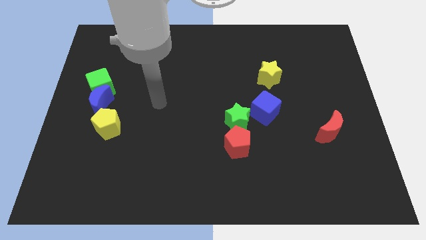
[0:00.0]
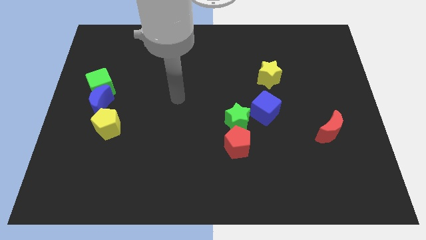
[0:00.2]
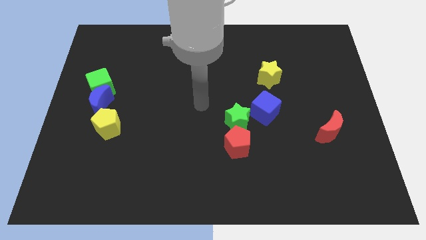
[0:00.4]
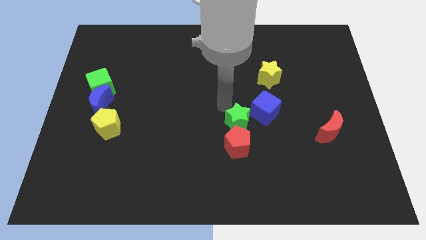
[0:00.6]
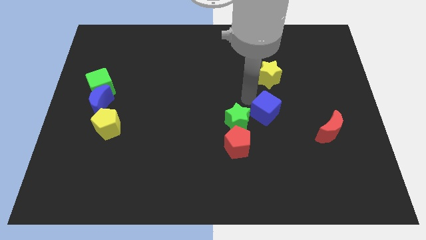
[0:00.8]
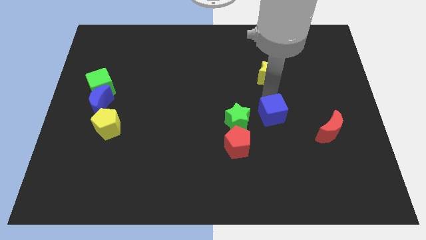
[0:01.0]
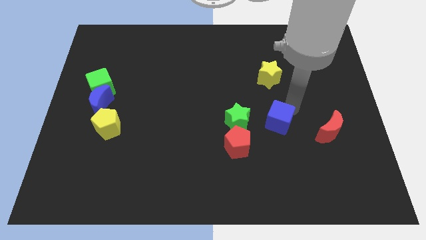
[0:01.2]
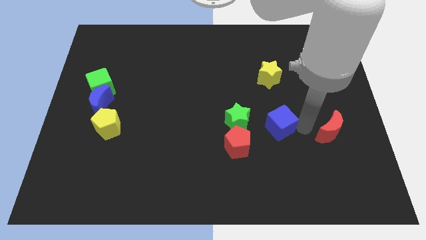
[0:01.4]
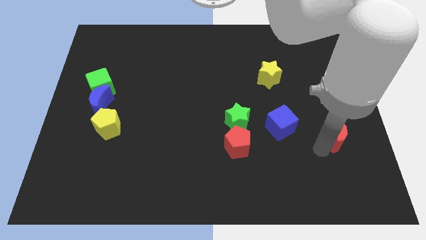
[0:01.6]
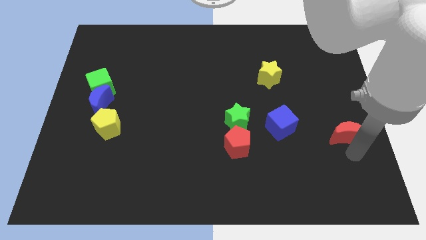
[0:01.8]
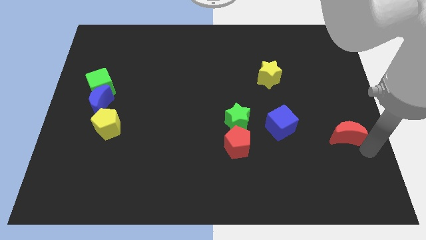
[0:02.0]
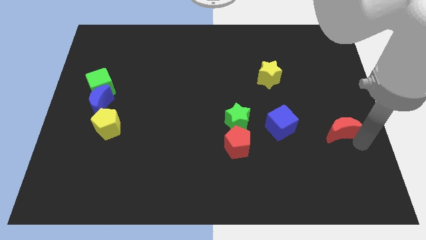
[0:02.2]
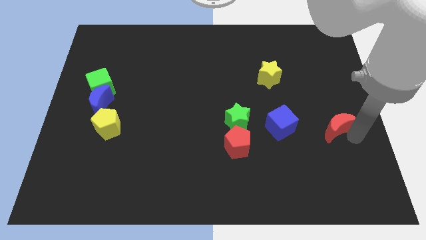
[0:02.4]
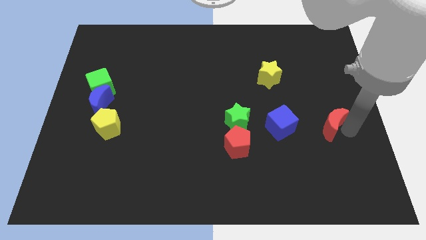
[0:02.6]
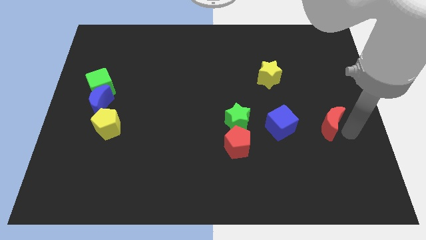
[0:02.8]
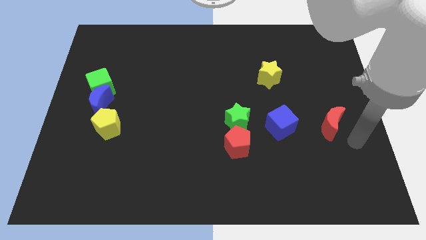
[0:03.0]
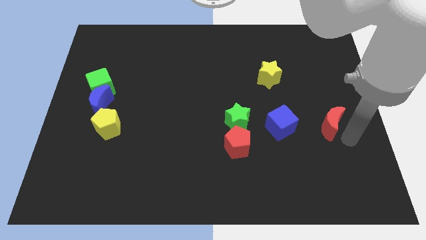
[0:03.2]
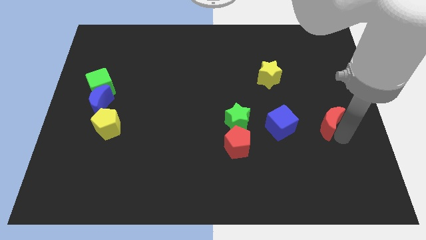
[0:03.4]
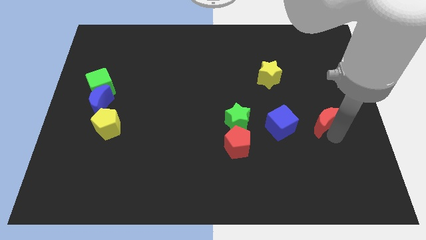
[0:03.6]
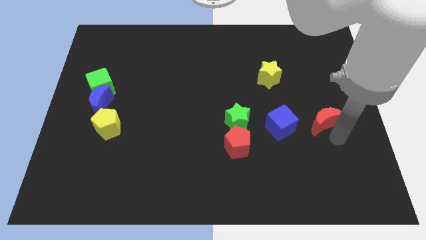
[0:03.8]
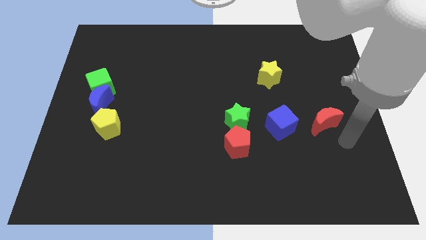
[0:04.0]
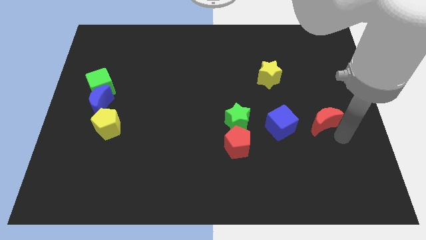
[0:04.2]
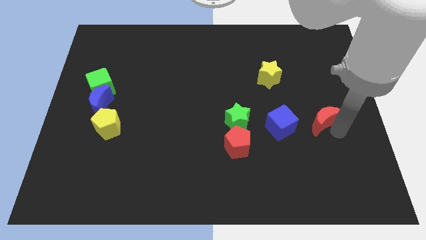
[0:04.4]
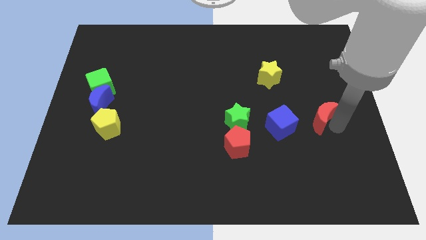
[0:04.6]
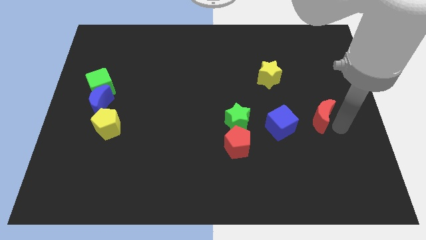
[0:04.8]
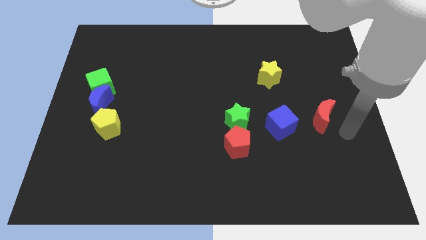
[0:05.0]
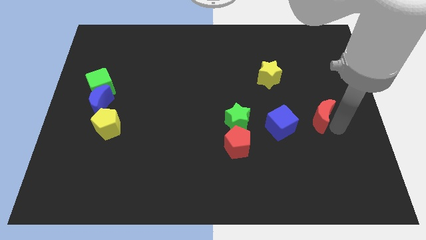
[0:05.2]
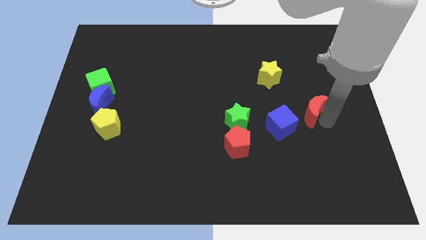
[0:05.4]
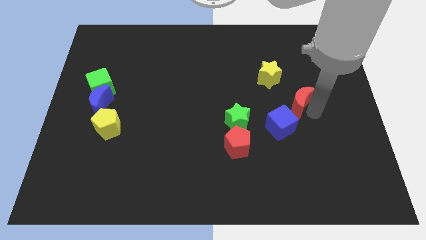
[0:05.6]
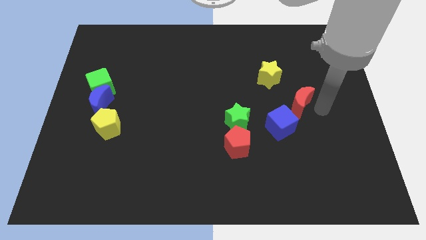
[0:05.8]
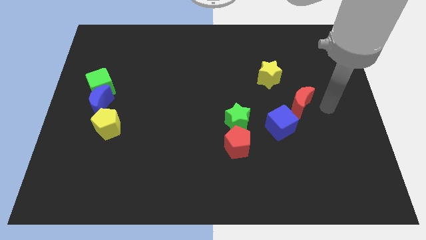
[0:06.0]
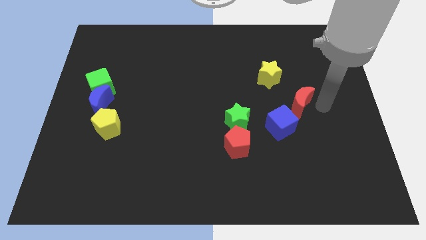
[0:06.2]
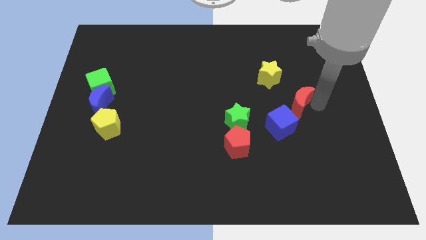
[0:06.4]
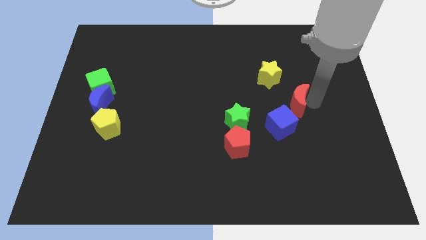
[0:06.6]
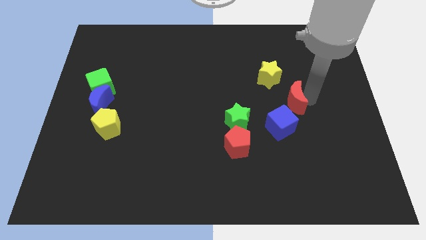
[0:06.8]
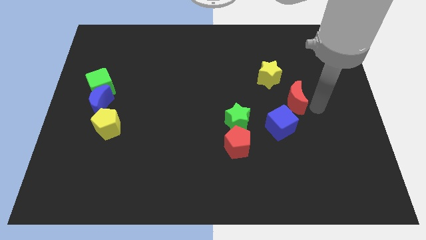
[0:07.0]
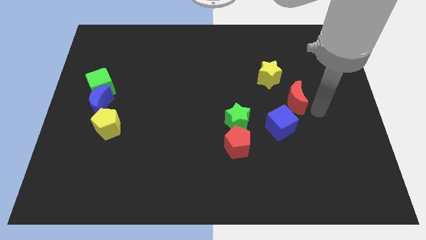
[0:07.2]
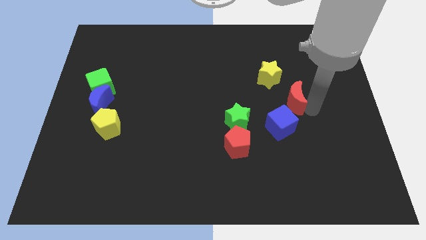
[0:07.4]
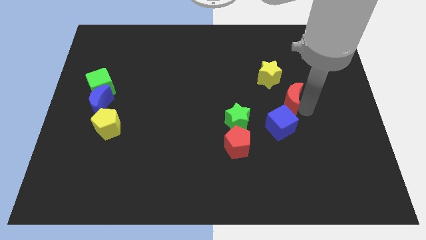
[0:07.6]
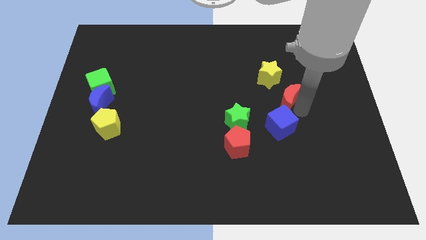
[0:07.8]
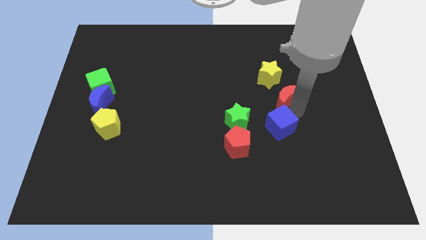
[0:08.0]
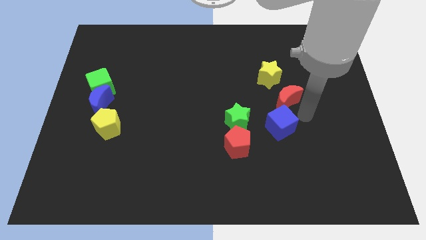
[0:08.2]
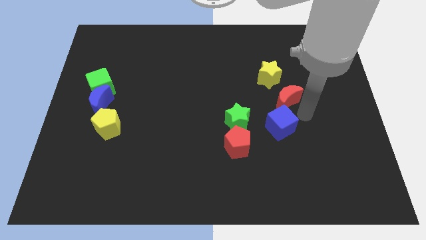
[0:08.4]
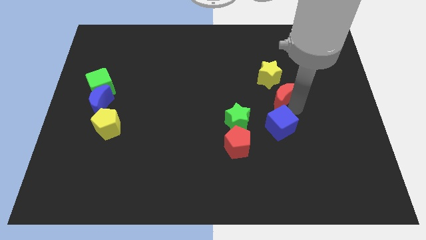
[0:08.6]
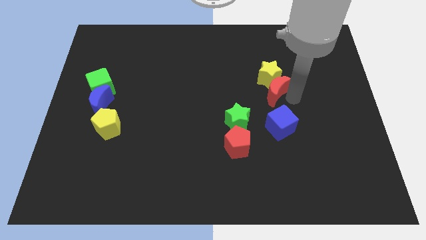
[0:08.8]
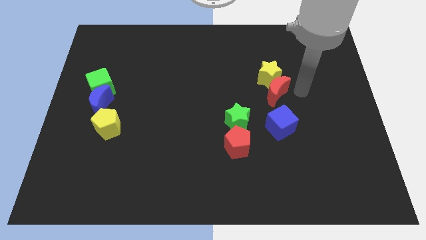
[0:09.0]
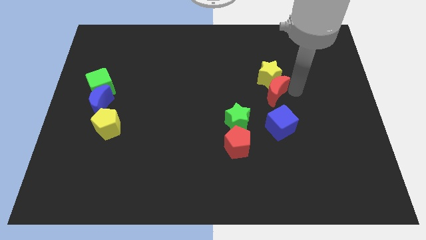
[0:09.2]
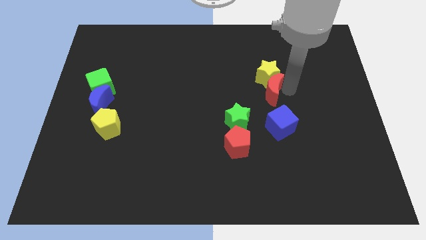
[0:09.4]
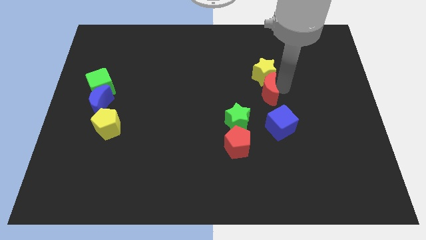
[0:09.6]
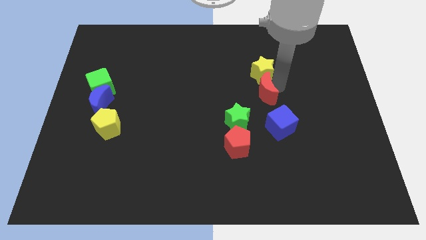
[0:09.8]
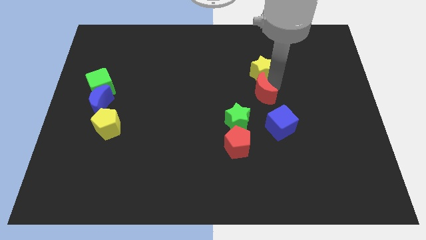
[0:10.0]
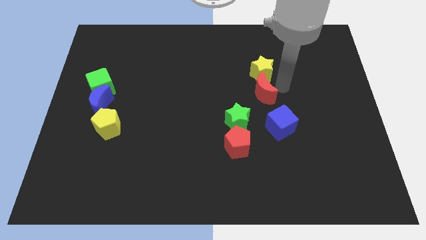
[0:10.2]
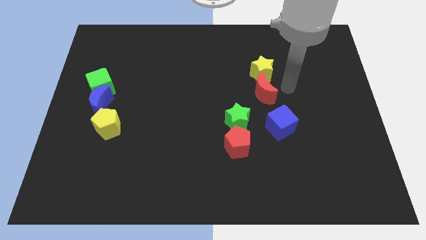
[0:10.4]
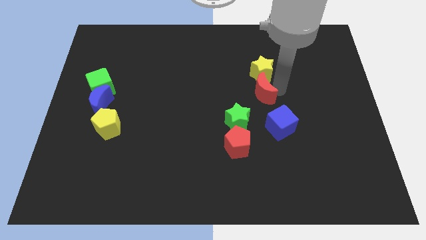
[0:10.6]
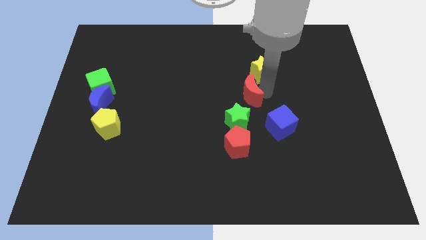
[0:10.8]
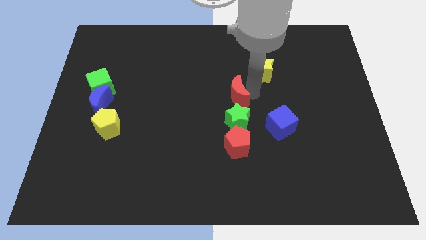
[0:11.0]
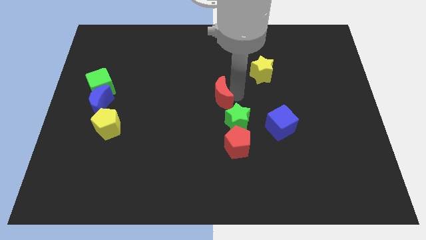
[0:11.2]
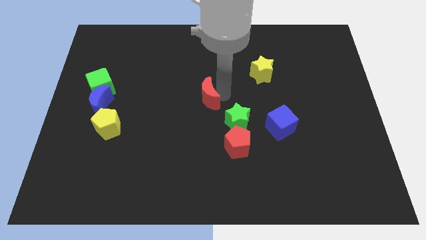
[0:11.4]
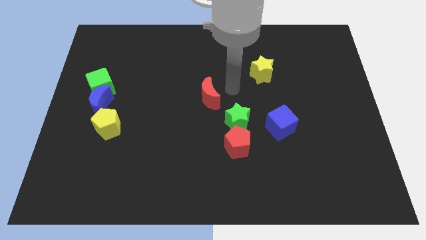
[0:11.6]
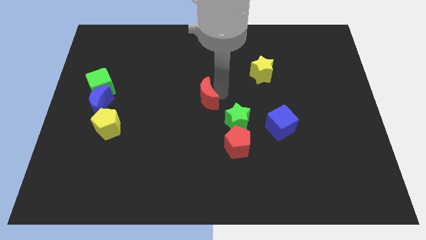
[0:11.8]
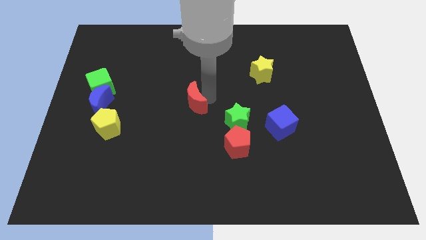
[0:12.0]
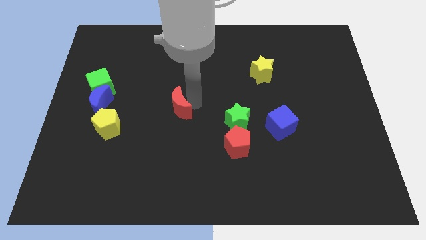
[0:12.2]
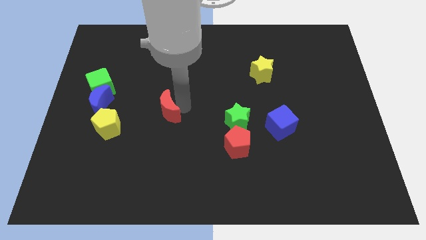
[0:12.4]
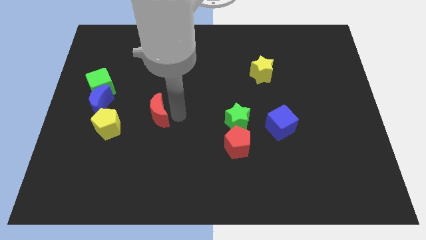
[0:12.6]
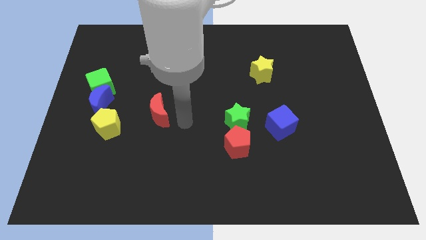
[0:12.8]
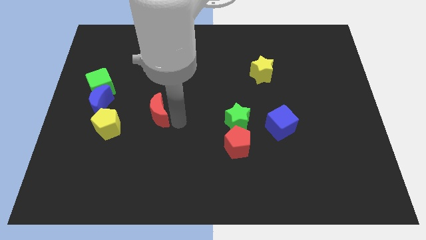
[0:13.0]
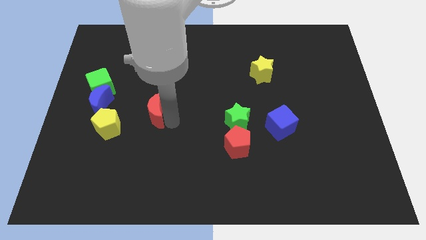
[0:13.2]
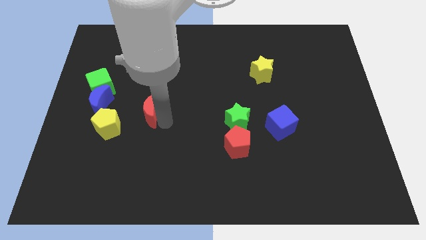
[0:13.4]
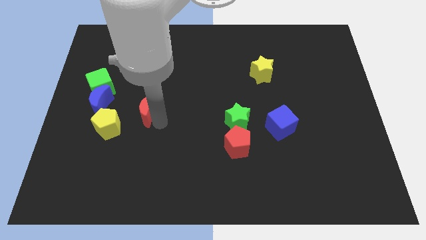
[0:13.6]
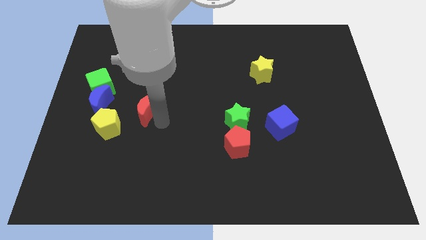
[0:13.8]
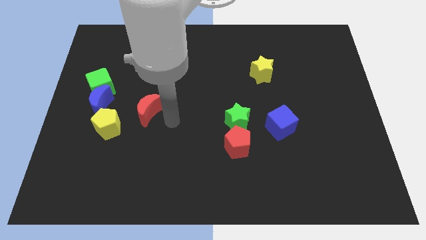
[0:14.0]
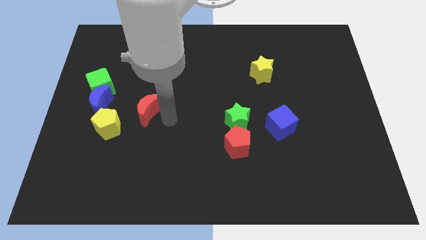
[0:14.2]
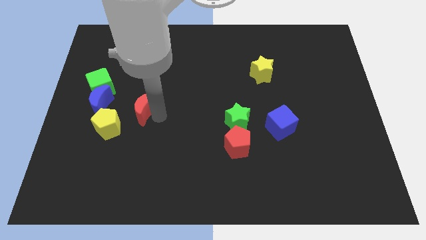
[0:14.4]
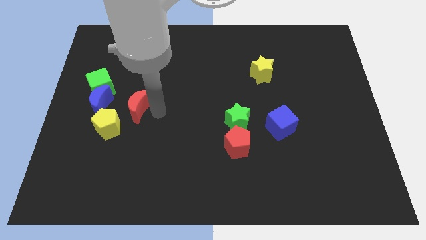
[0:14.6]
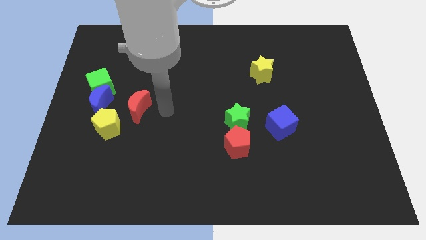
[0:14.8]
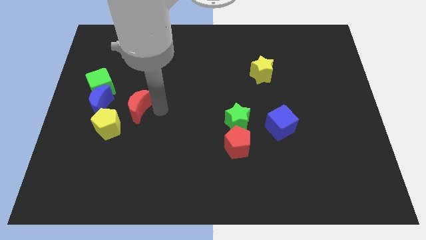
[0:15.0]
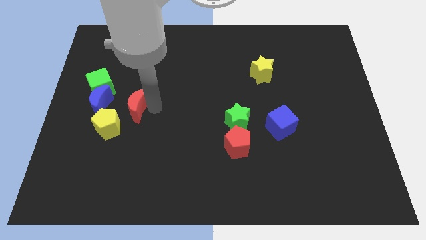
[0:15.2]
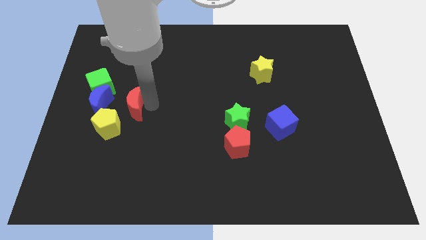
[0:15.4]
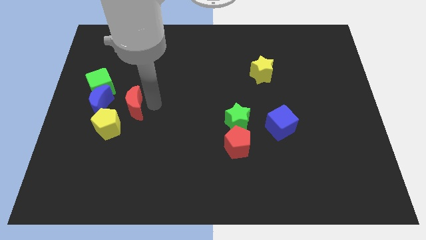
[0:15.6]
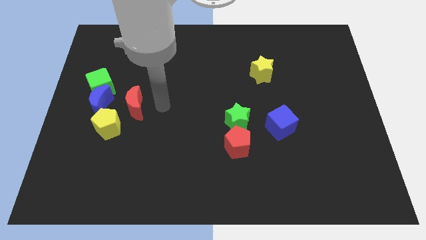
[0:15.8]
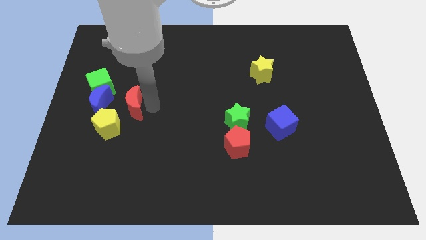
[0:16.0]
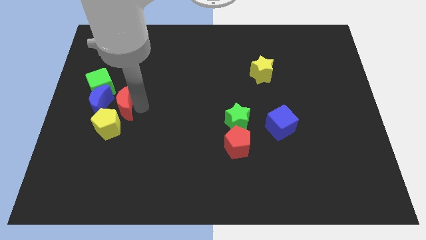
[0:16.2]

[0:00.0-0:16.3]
put the red moon next to the blue moon
